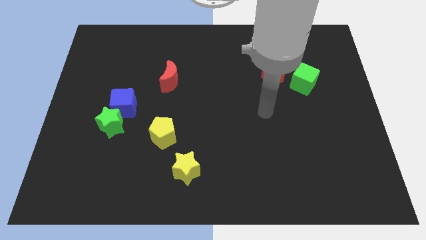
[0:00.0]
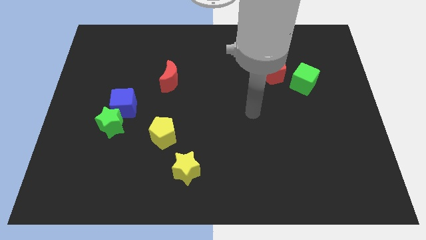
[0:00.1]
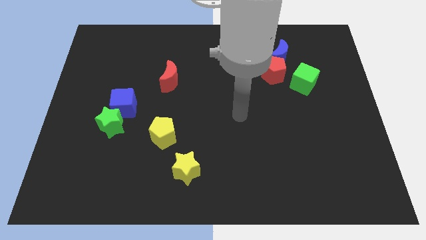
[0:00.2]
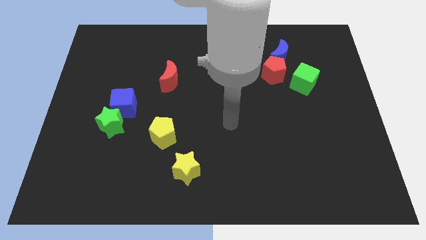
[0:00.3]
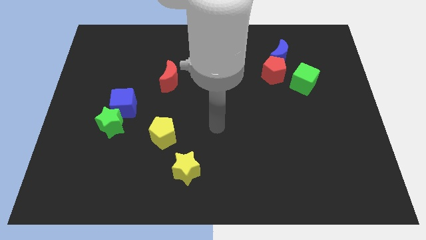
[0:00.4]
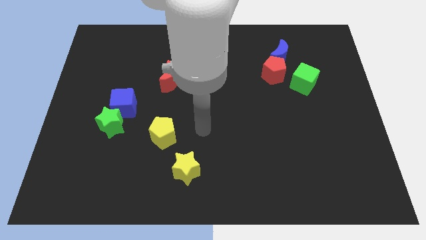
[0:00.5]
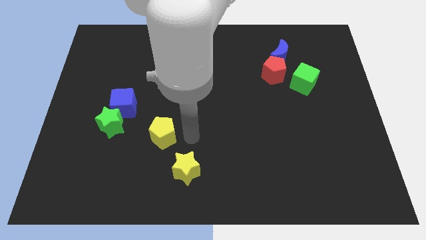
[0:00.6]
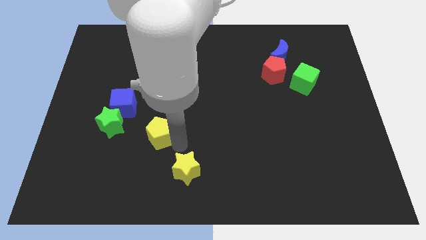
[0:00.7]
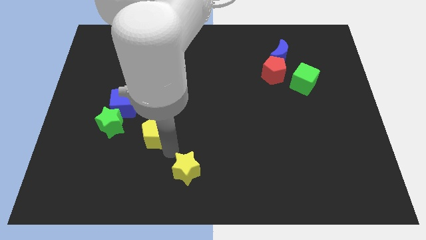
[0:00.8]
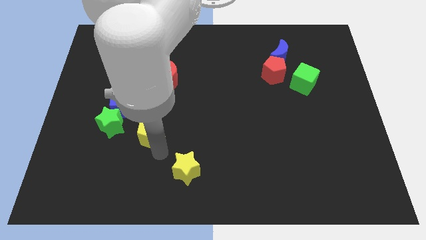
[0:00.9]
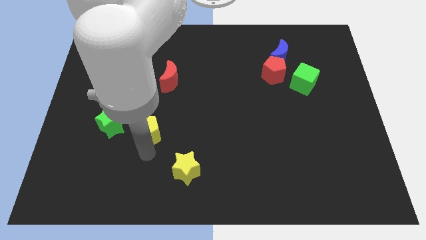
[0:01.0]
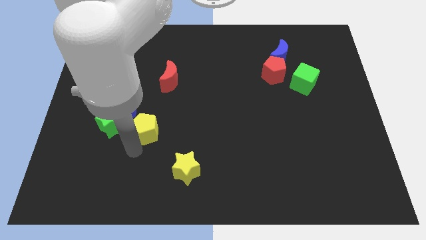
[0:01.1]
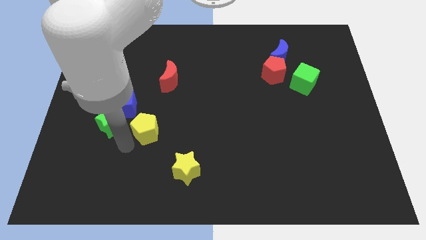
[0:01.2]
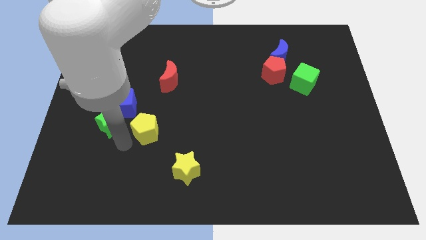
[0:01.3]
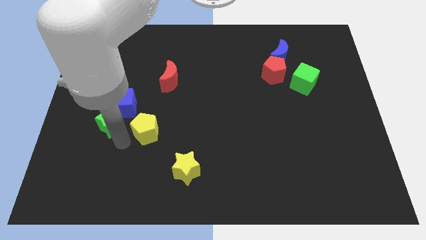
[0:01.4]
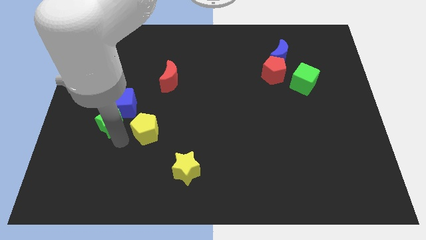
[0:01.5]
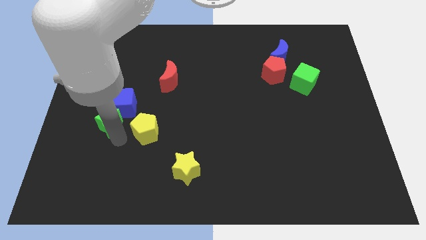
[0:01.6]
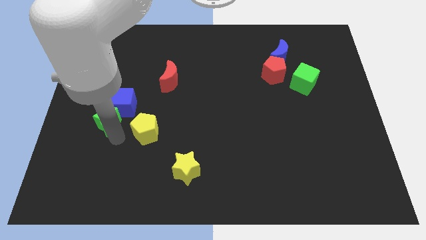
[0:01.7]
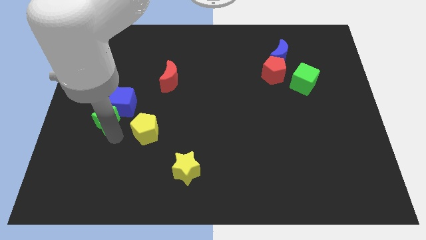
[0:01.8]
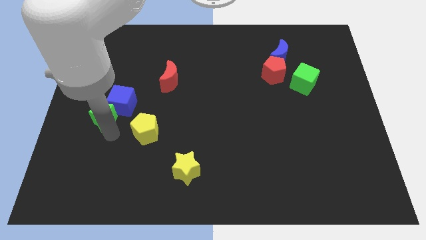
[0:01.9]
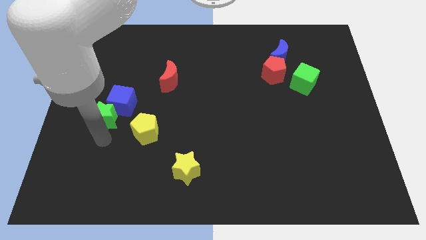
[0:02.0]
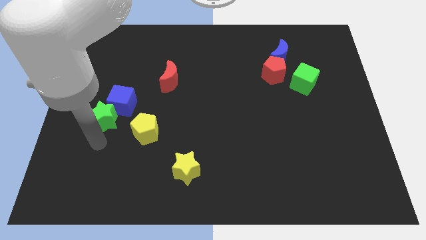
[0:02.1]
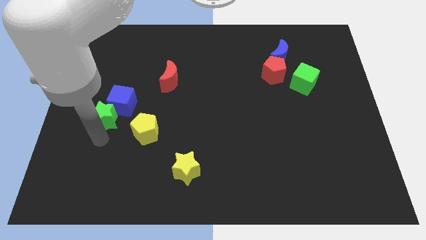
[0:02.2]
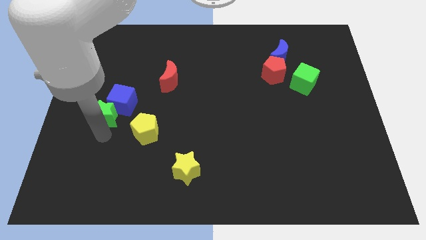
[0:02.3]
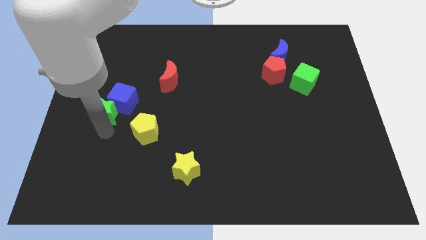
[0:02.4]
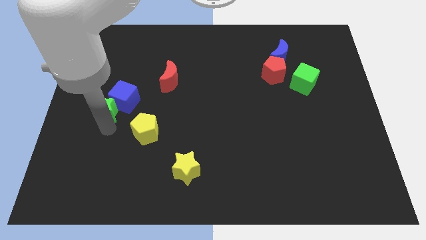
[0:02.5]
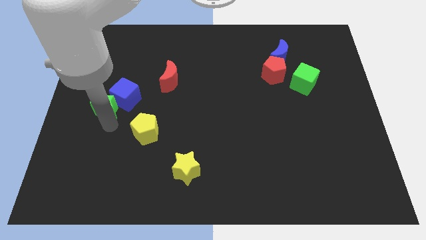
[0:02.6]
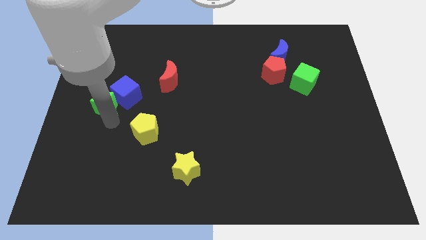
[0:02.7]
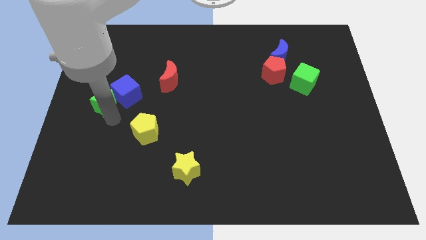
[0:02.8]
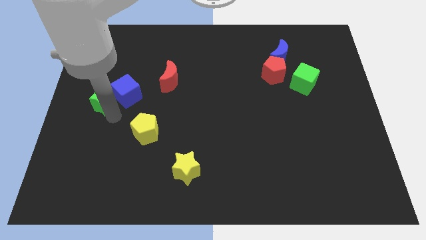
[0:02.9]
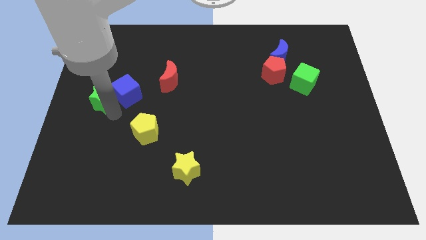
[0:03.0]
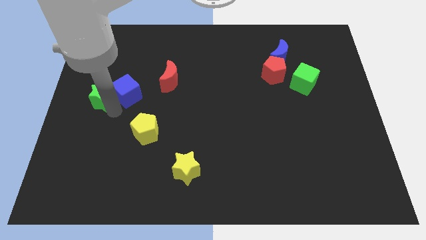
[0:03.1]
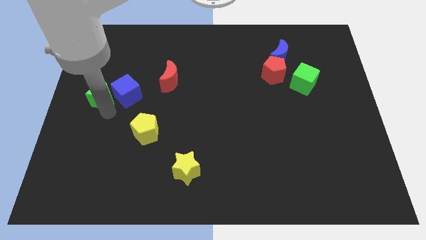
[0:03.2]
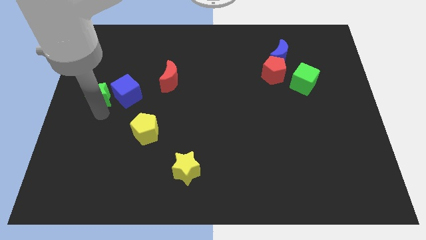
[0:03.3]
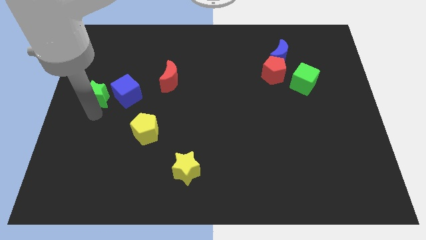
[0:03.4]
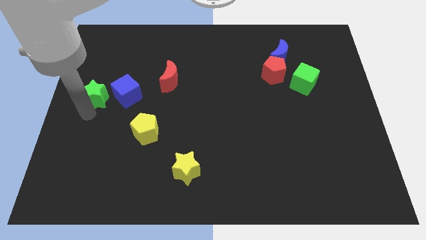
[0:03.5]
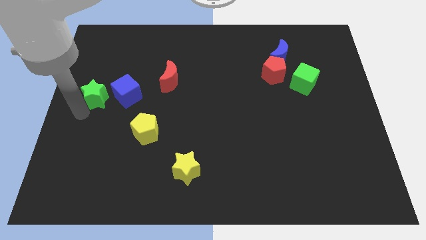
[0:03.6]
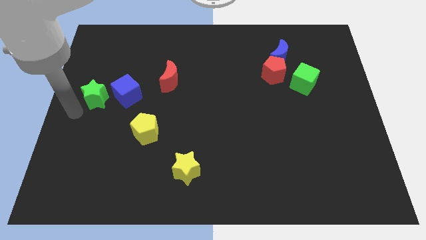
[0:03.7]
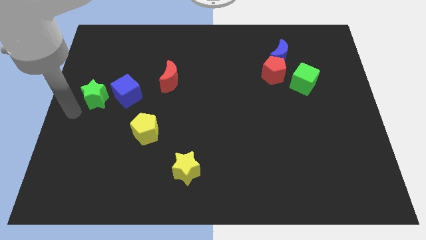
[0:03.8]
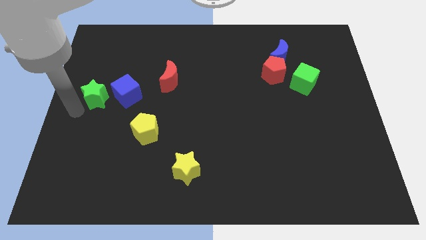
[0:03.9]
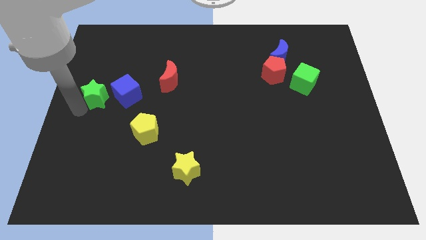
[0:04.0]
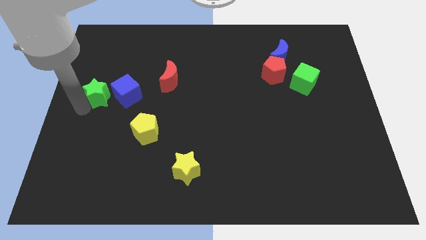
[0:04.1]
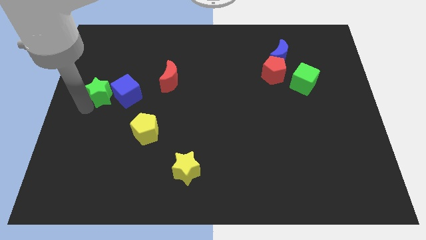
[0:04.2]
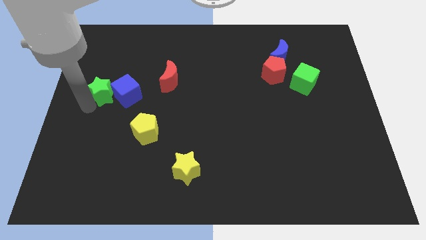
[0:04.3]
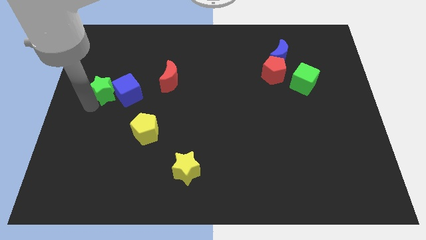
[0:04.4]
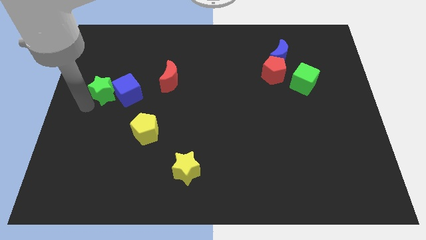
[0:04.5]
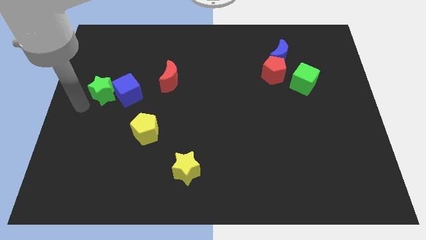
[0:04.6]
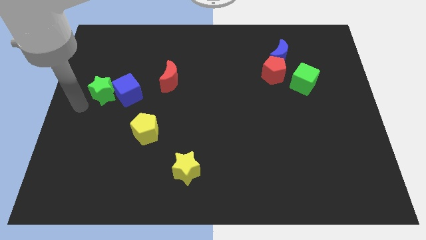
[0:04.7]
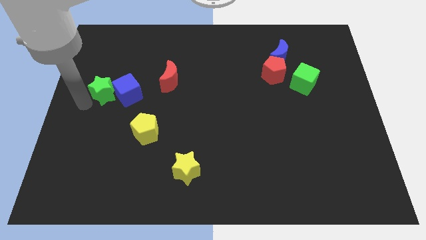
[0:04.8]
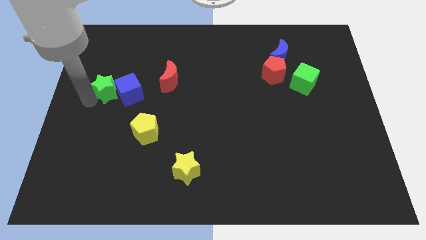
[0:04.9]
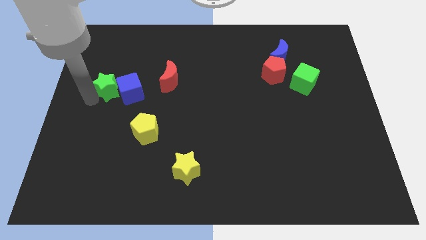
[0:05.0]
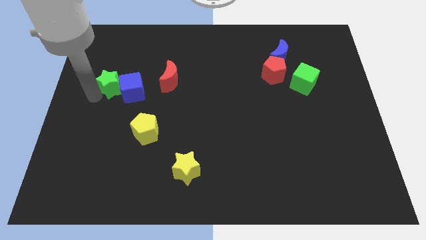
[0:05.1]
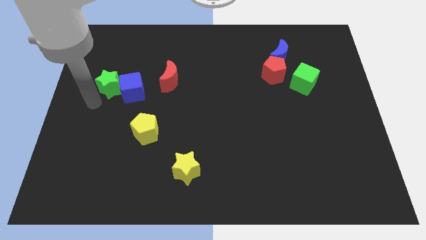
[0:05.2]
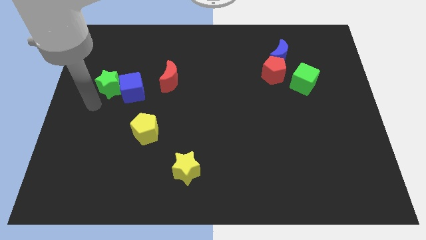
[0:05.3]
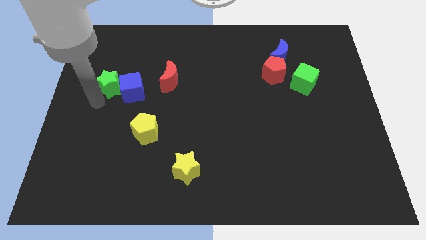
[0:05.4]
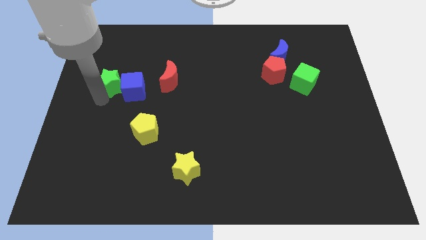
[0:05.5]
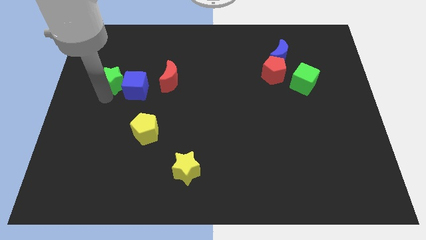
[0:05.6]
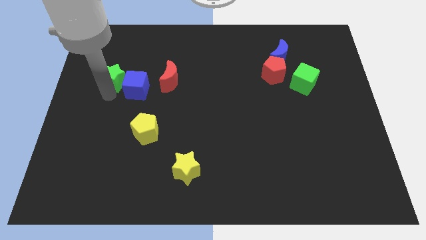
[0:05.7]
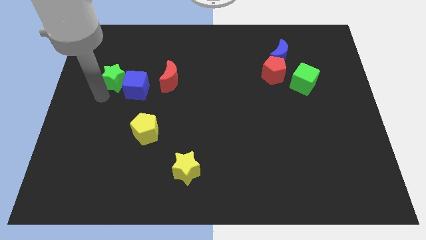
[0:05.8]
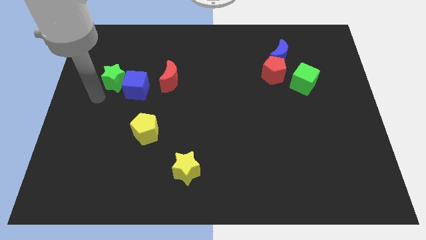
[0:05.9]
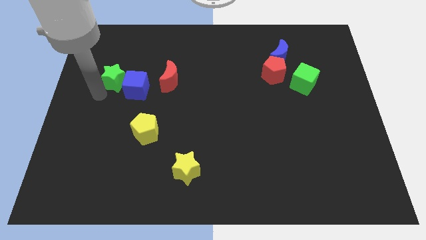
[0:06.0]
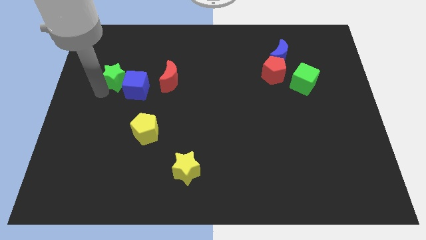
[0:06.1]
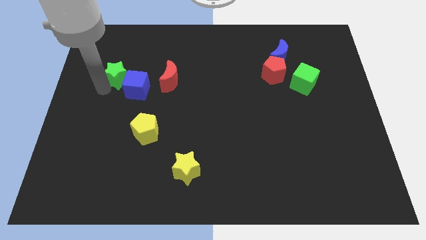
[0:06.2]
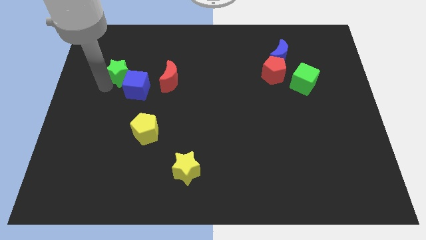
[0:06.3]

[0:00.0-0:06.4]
slide the green star above the blue cube

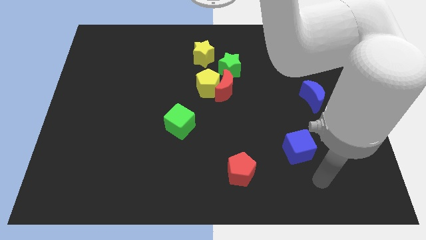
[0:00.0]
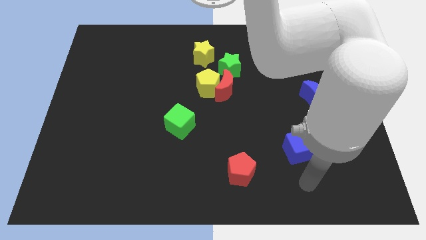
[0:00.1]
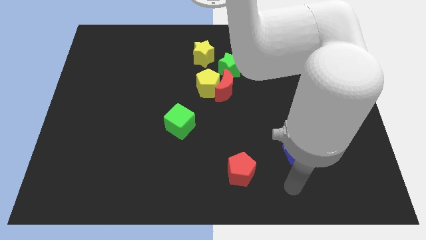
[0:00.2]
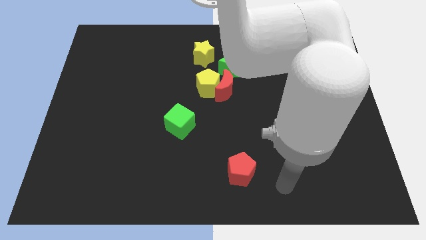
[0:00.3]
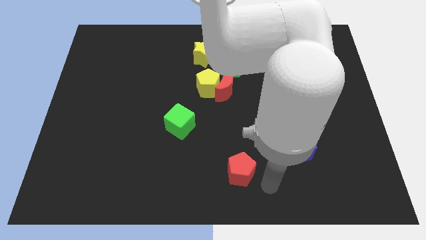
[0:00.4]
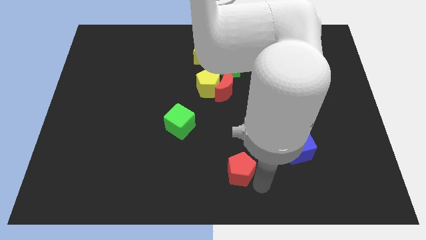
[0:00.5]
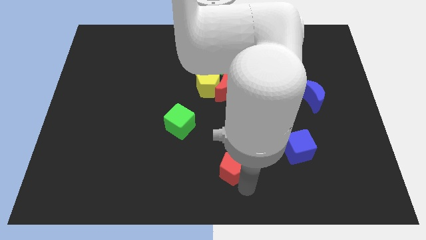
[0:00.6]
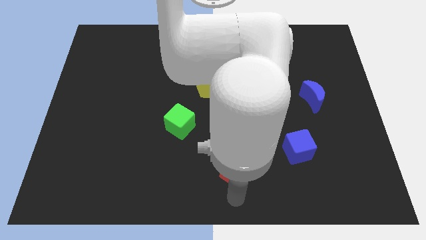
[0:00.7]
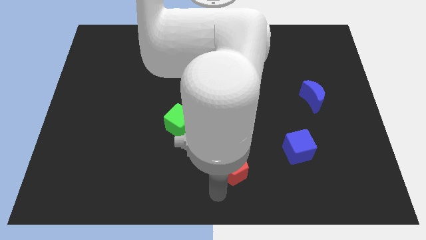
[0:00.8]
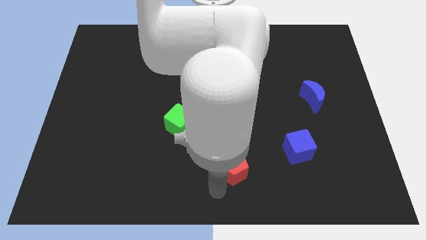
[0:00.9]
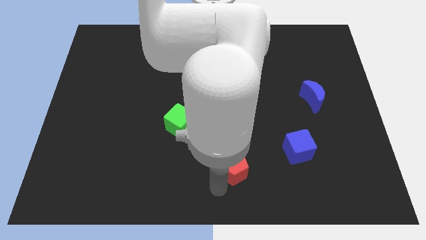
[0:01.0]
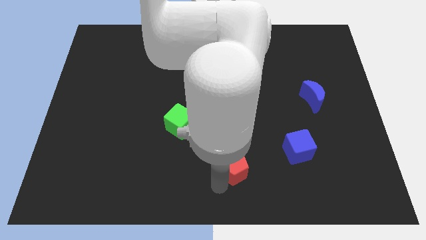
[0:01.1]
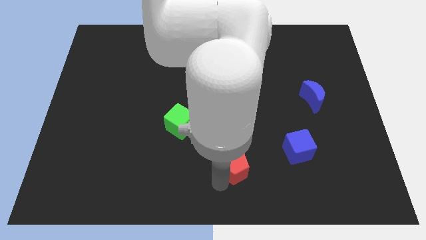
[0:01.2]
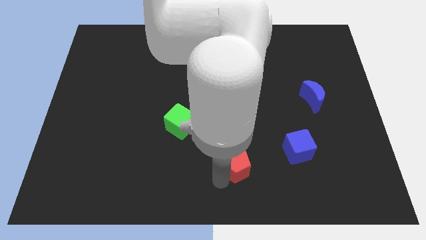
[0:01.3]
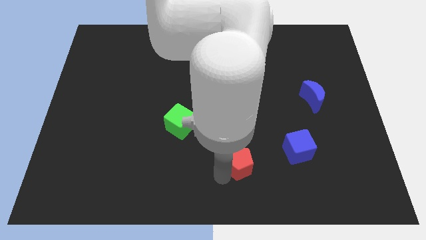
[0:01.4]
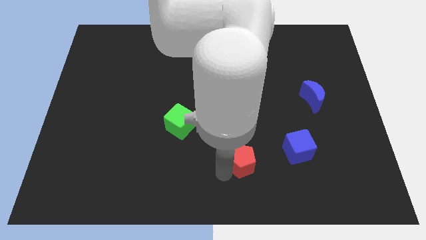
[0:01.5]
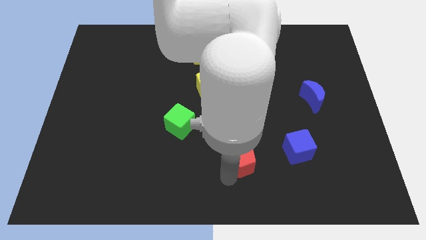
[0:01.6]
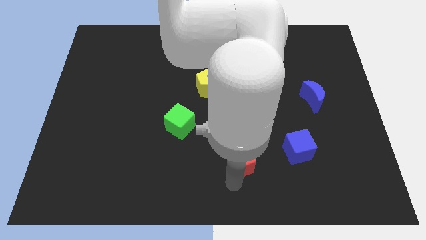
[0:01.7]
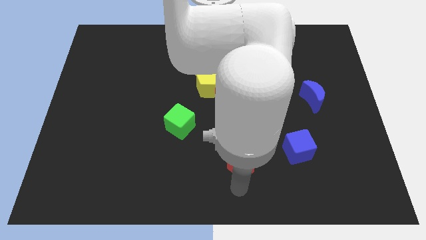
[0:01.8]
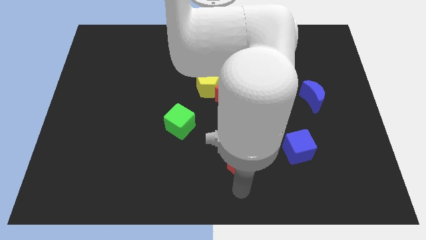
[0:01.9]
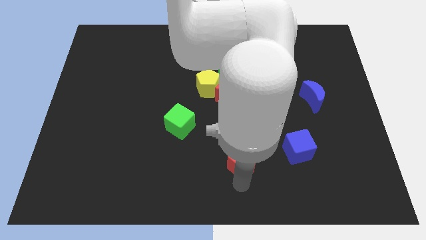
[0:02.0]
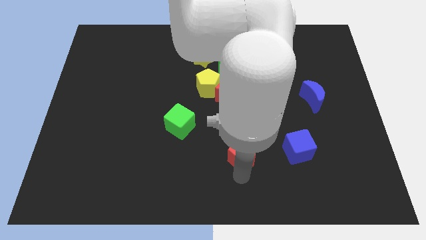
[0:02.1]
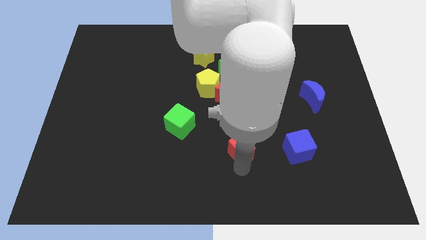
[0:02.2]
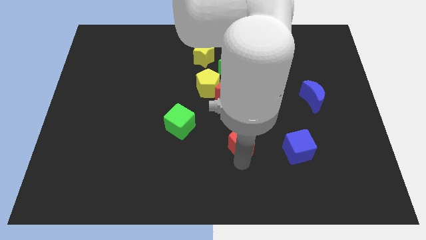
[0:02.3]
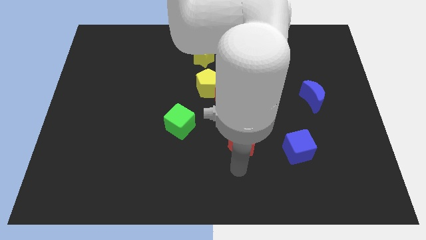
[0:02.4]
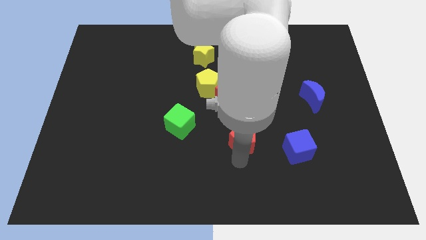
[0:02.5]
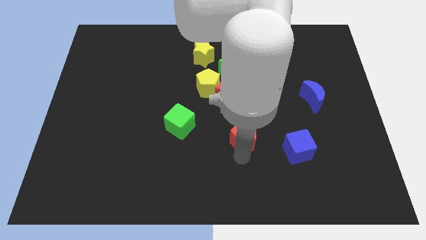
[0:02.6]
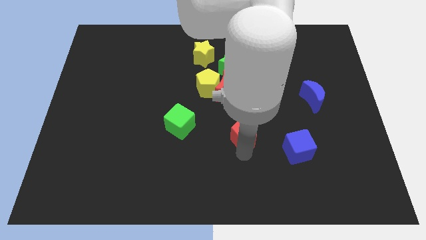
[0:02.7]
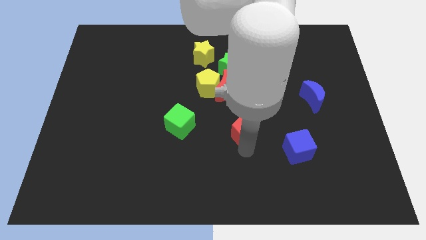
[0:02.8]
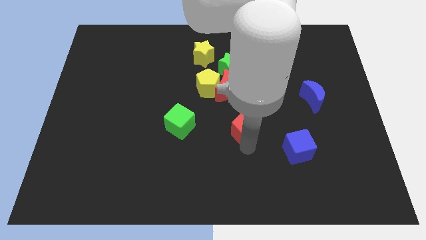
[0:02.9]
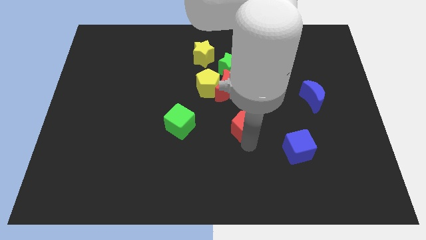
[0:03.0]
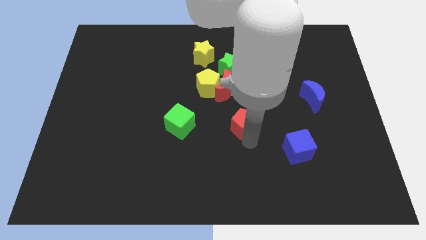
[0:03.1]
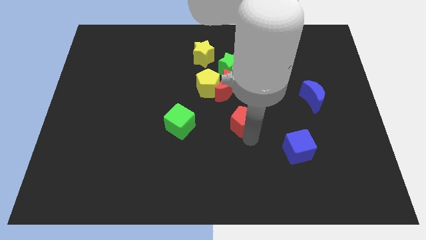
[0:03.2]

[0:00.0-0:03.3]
put the red pentagon diagonally down and to the right of the red moon
